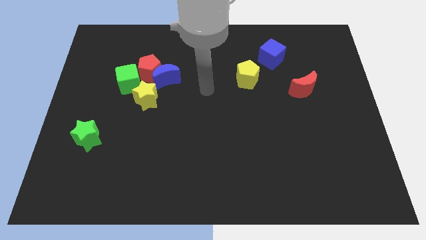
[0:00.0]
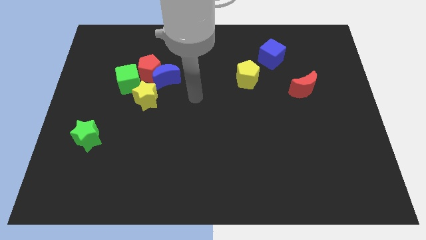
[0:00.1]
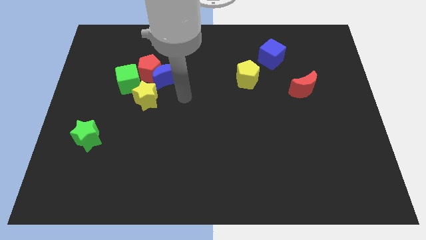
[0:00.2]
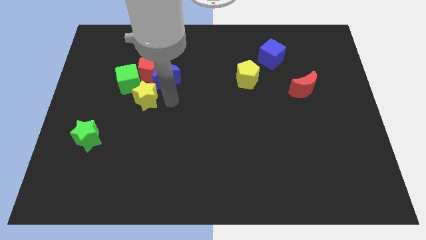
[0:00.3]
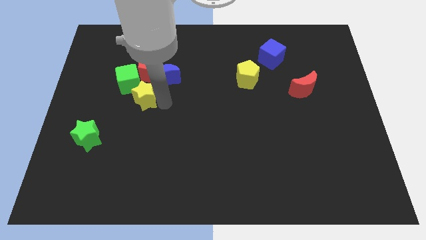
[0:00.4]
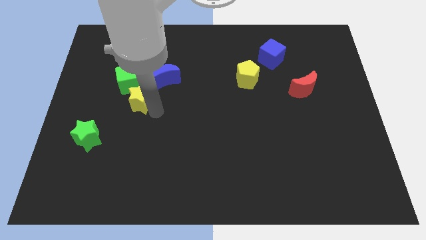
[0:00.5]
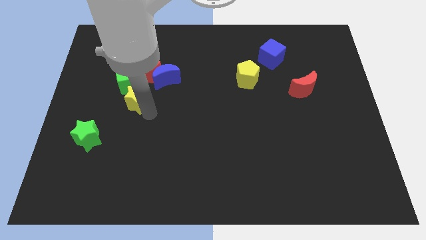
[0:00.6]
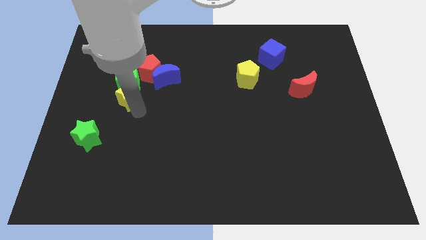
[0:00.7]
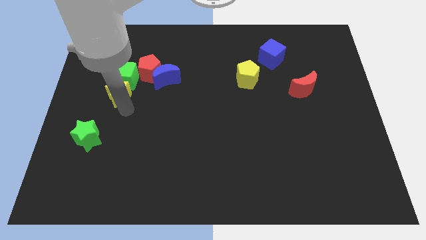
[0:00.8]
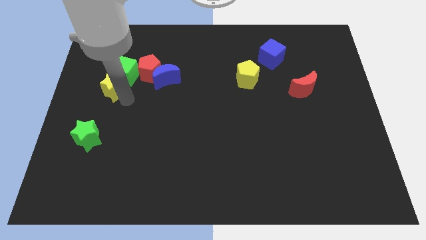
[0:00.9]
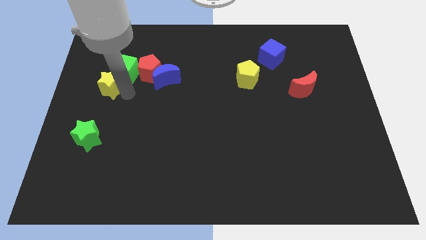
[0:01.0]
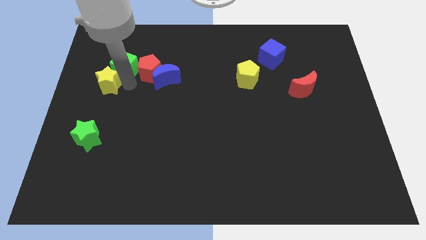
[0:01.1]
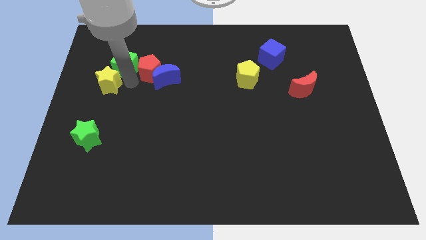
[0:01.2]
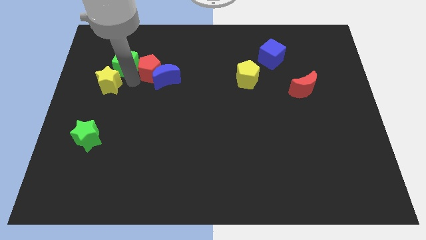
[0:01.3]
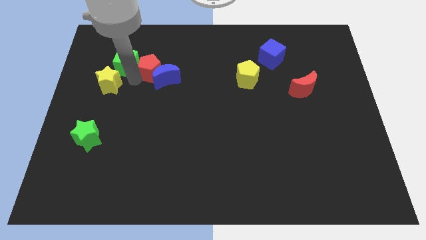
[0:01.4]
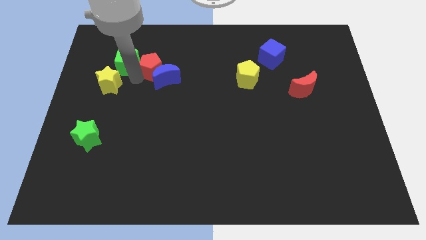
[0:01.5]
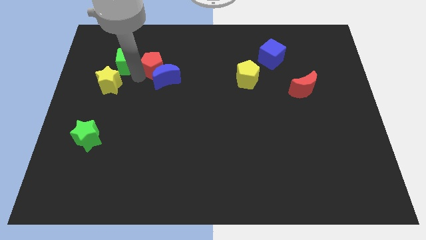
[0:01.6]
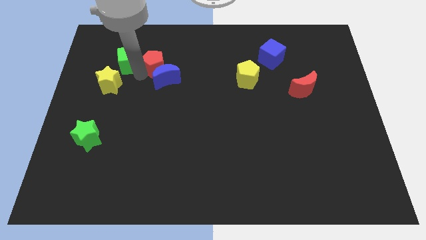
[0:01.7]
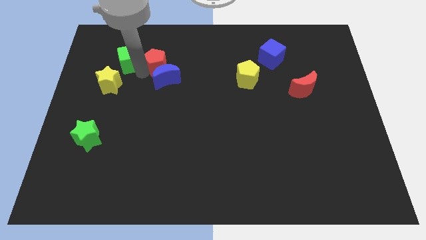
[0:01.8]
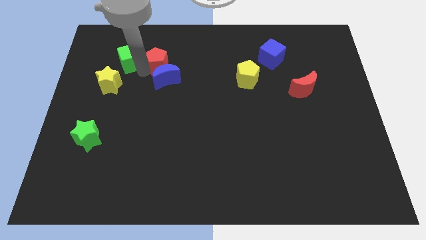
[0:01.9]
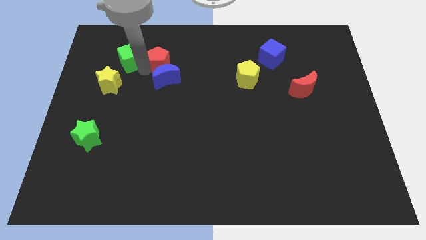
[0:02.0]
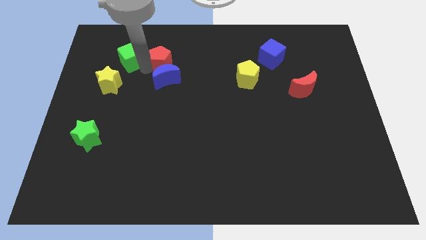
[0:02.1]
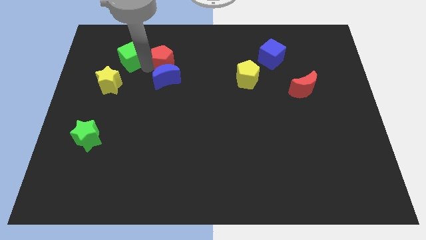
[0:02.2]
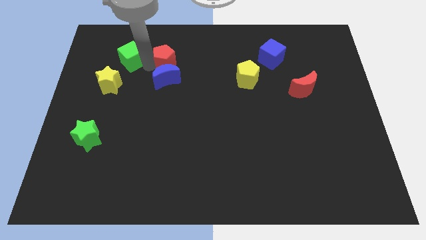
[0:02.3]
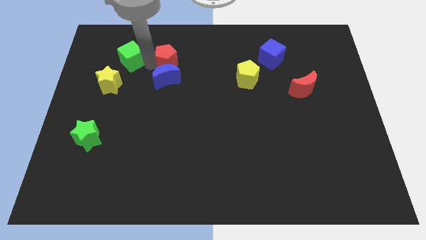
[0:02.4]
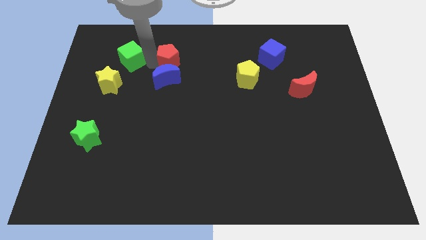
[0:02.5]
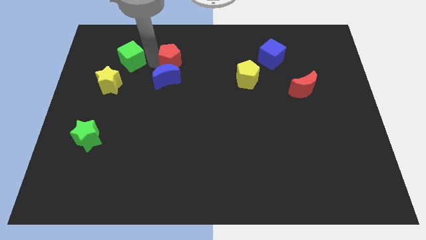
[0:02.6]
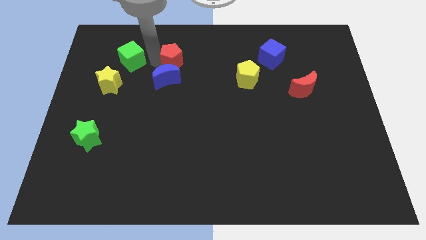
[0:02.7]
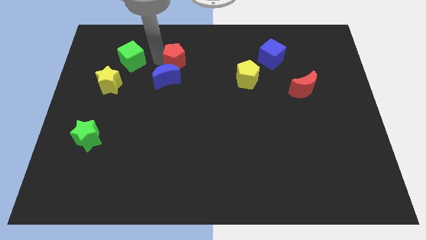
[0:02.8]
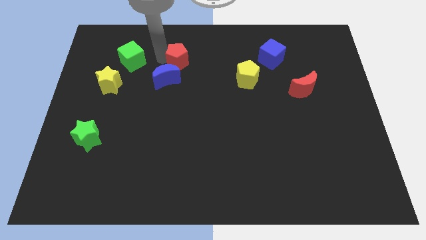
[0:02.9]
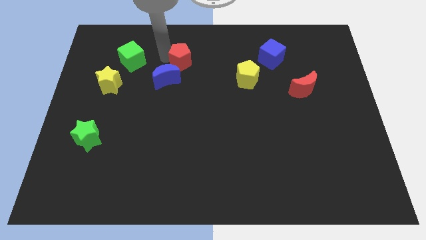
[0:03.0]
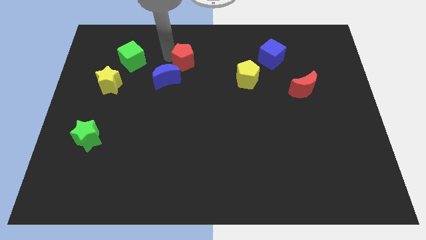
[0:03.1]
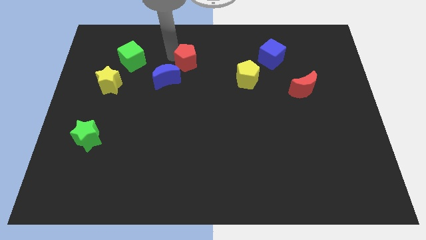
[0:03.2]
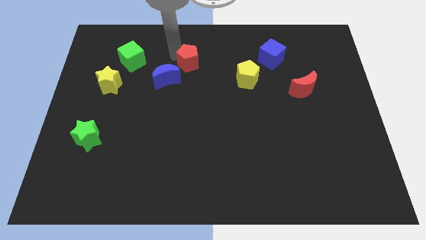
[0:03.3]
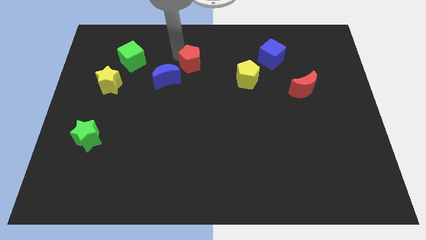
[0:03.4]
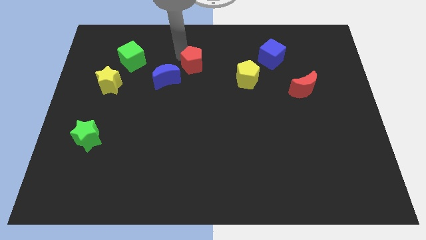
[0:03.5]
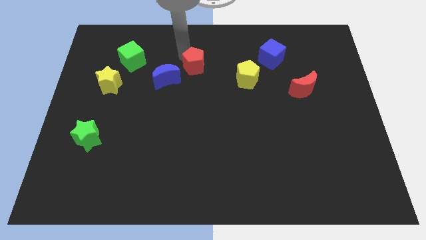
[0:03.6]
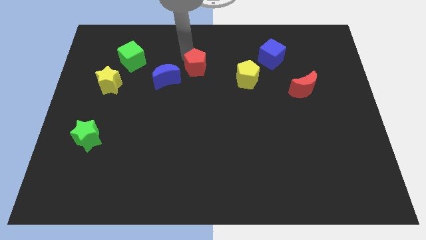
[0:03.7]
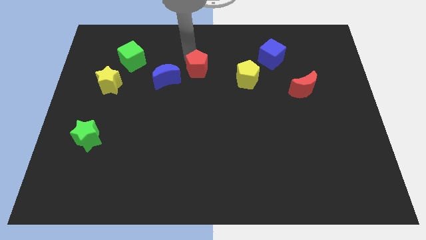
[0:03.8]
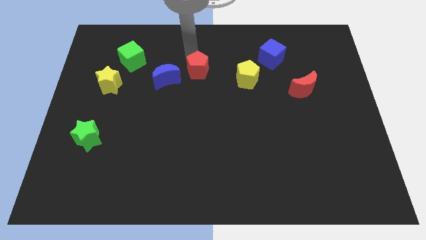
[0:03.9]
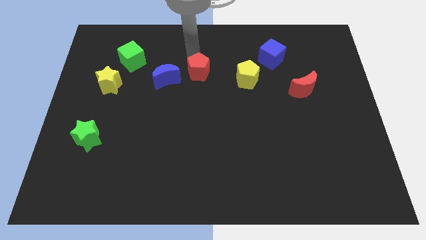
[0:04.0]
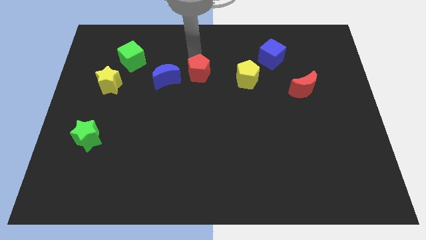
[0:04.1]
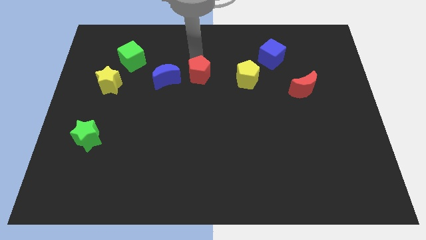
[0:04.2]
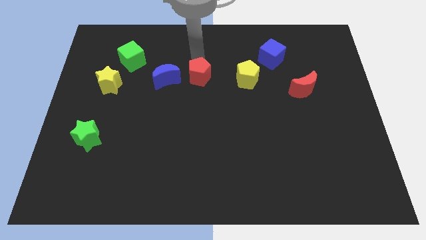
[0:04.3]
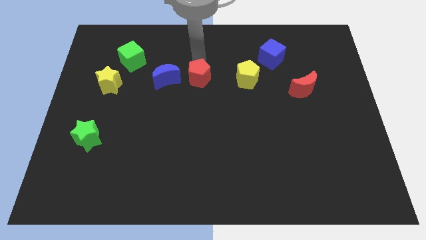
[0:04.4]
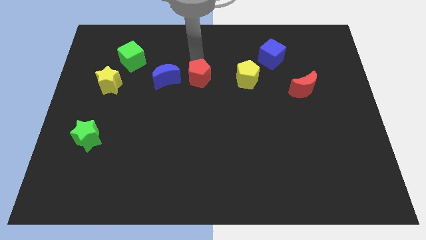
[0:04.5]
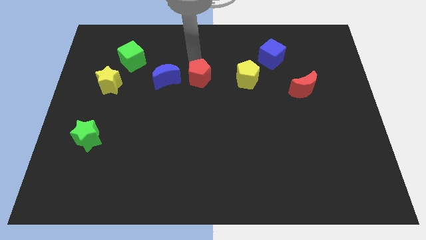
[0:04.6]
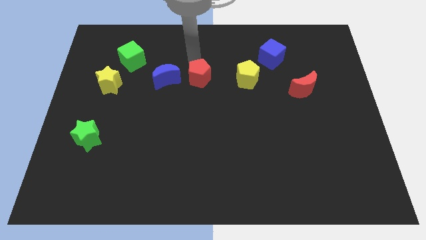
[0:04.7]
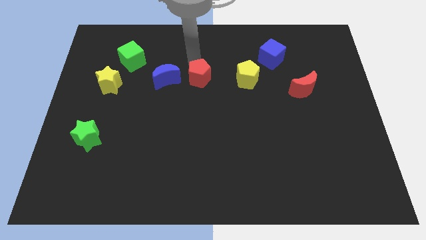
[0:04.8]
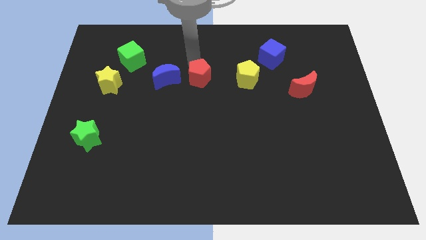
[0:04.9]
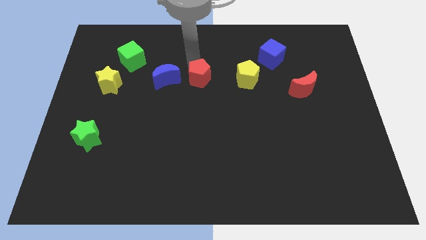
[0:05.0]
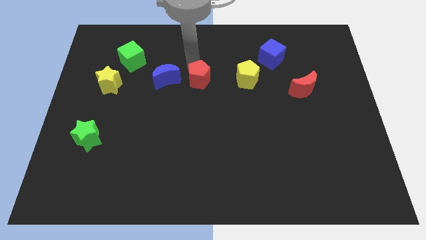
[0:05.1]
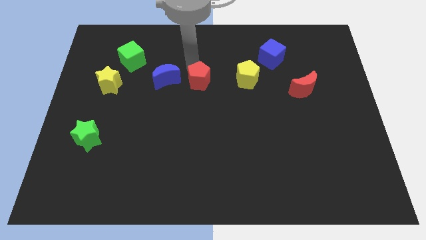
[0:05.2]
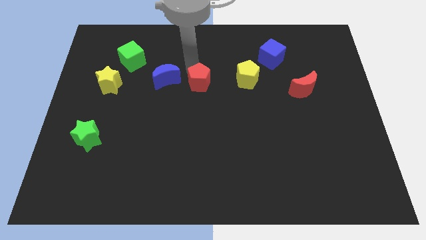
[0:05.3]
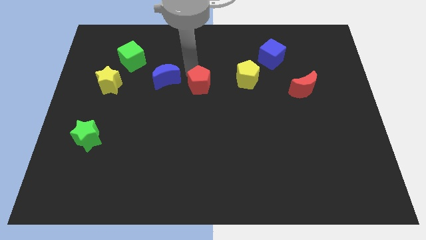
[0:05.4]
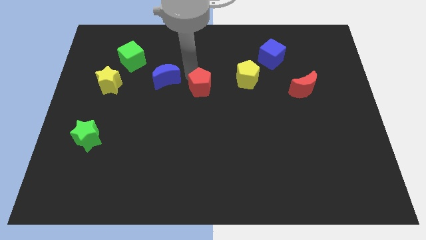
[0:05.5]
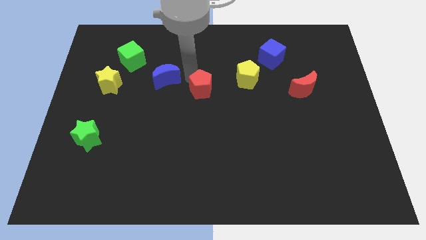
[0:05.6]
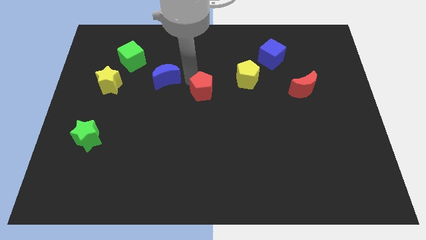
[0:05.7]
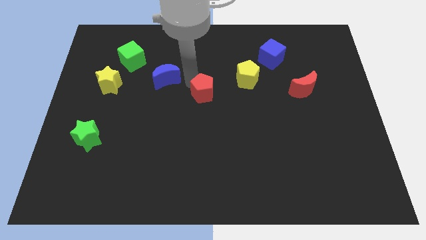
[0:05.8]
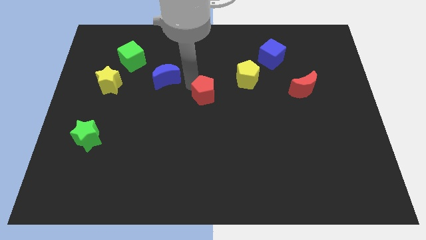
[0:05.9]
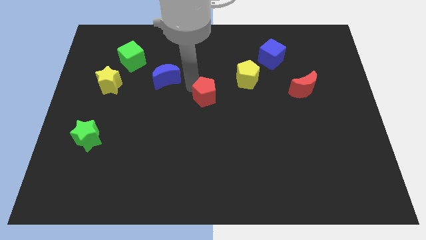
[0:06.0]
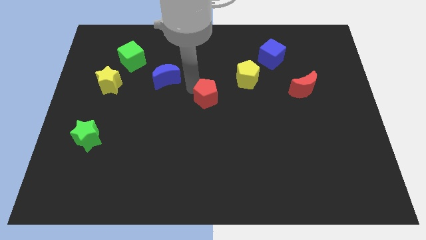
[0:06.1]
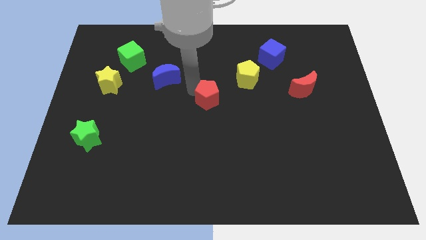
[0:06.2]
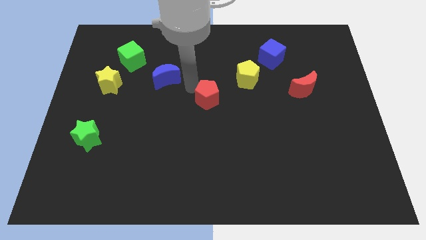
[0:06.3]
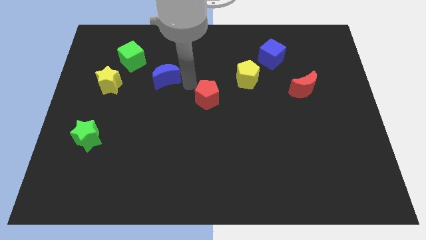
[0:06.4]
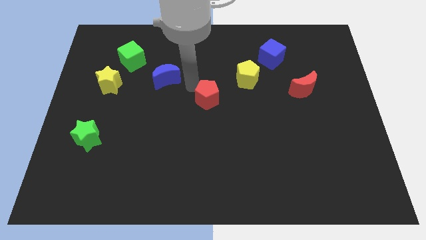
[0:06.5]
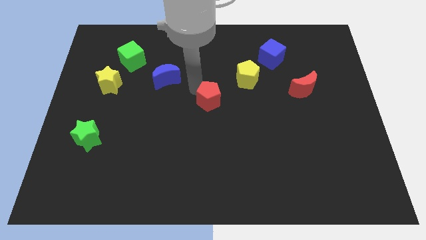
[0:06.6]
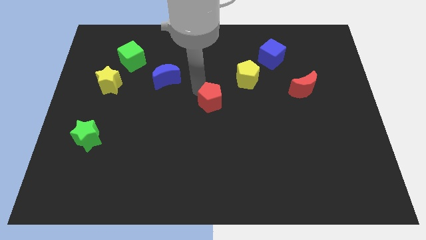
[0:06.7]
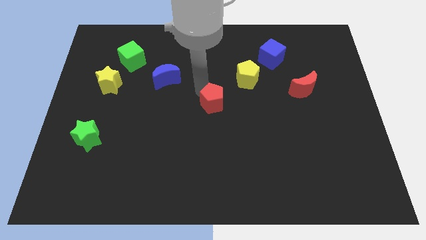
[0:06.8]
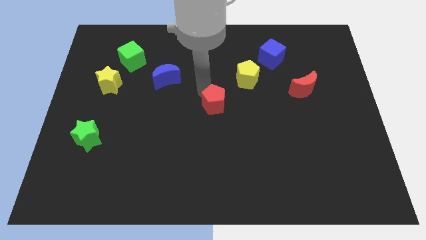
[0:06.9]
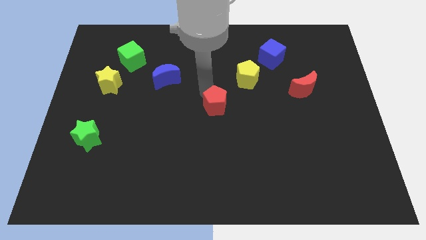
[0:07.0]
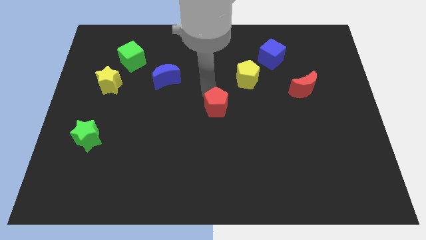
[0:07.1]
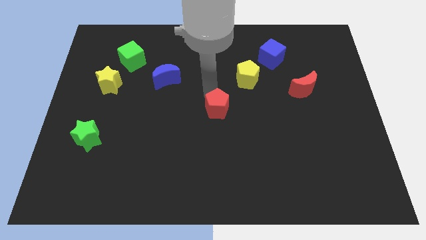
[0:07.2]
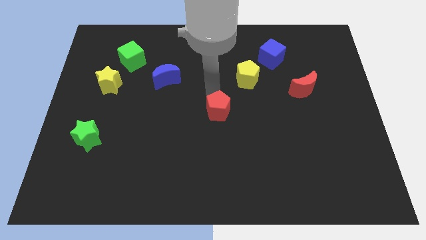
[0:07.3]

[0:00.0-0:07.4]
push the red pentagon down and right

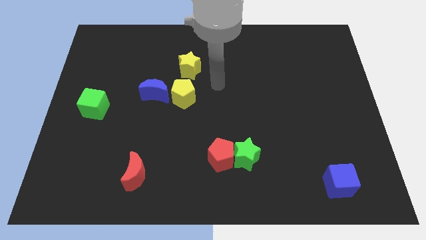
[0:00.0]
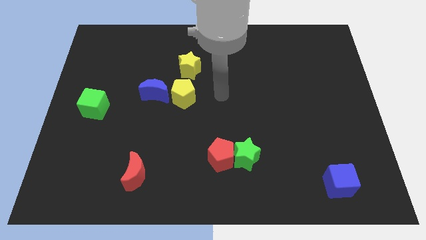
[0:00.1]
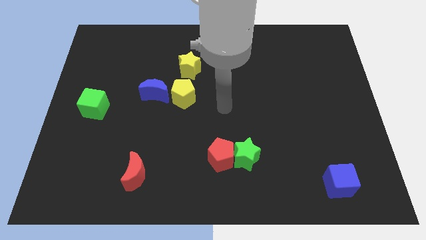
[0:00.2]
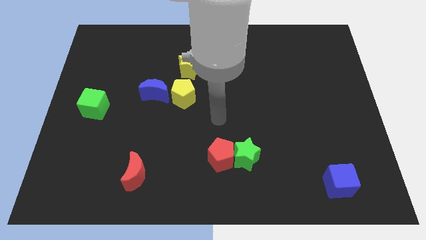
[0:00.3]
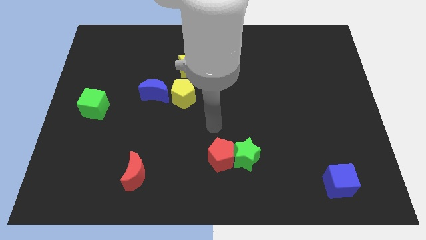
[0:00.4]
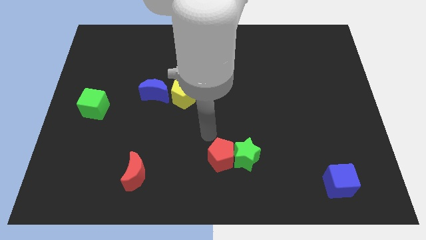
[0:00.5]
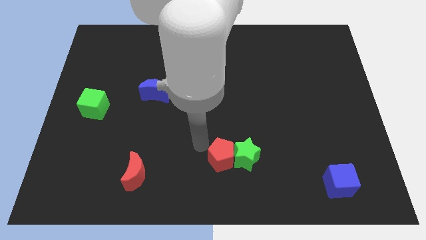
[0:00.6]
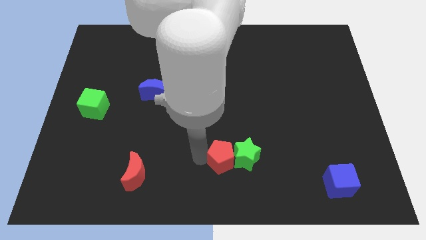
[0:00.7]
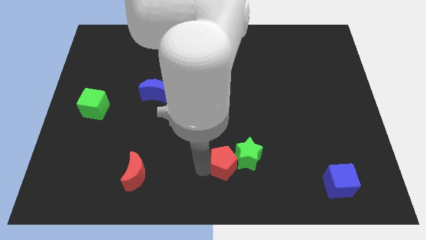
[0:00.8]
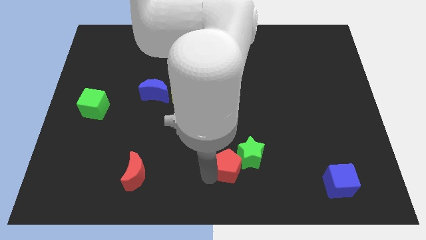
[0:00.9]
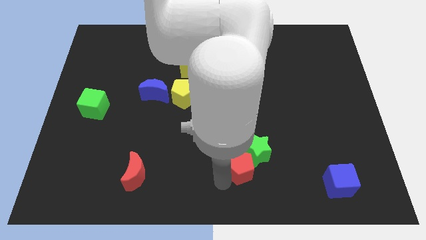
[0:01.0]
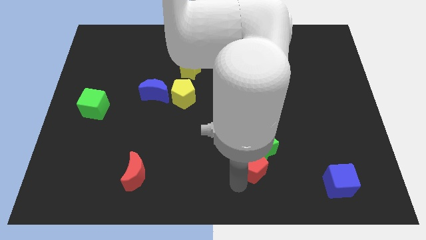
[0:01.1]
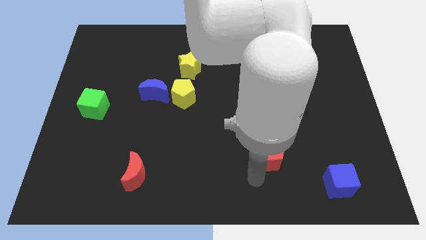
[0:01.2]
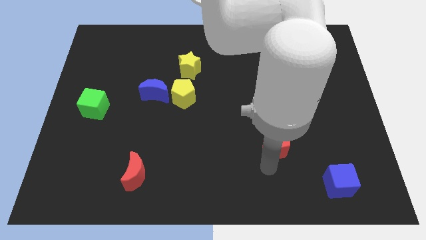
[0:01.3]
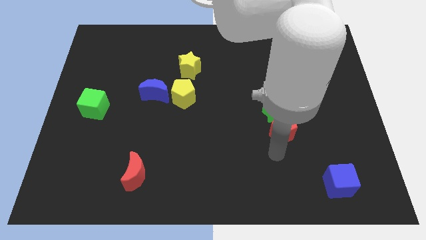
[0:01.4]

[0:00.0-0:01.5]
push the green star a little up
